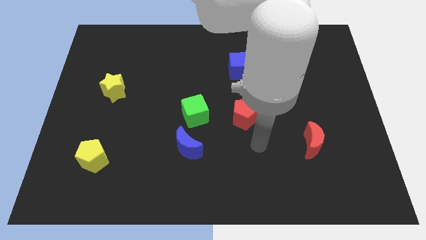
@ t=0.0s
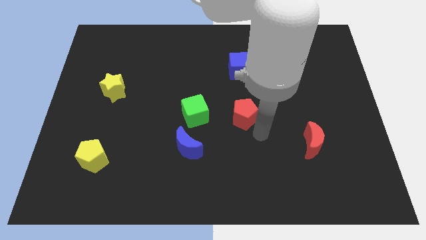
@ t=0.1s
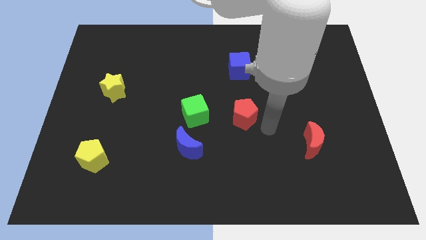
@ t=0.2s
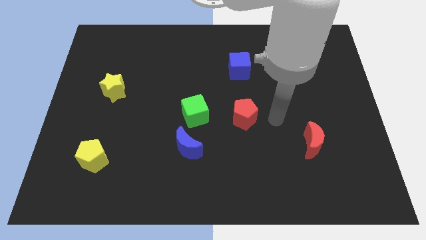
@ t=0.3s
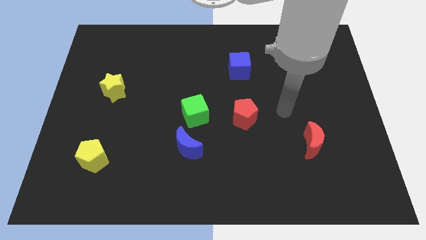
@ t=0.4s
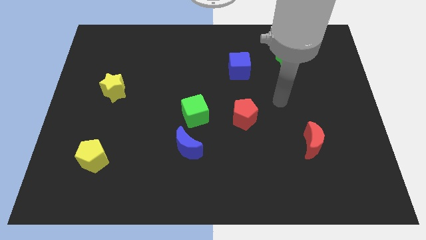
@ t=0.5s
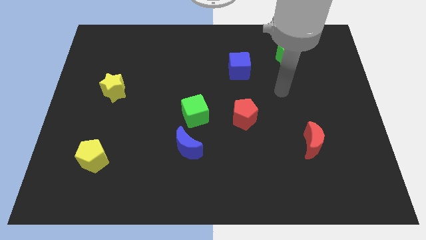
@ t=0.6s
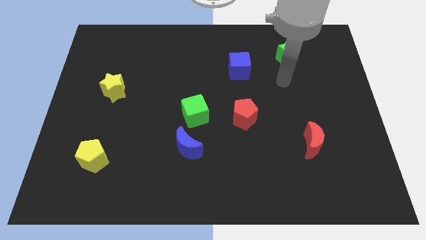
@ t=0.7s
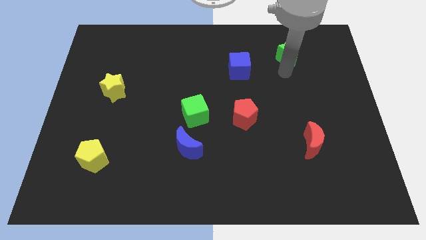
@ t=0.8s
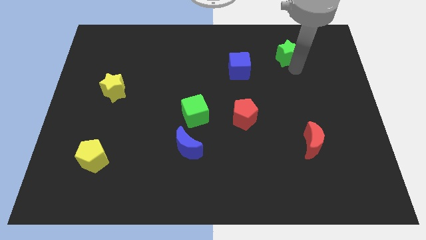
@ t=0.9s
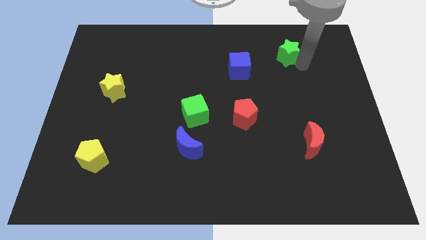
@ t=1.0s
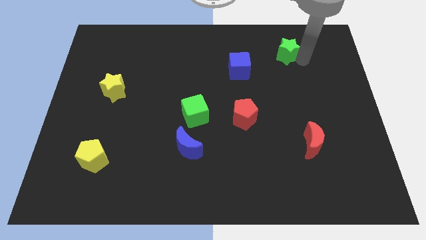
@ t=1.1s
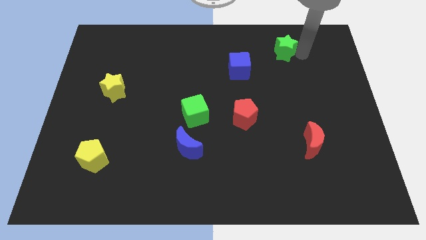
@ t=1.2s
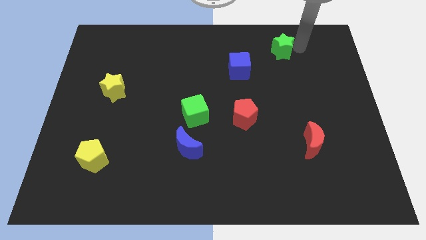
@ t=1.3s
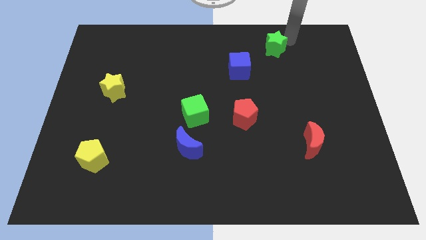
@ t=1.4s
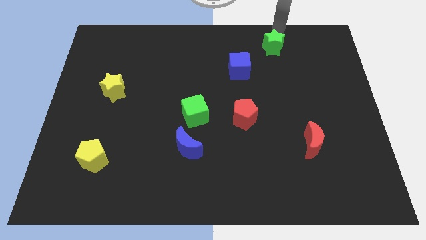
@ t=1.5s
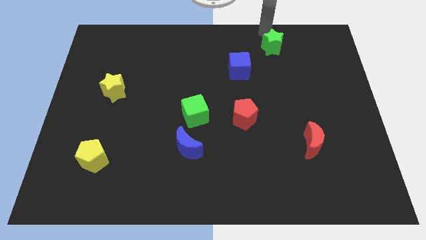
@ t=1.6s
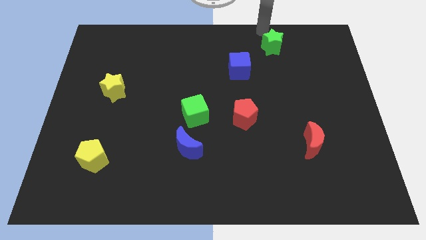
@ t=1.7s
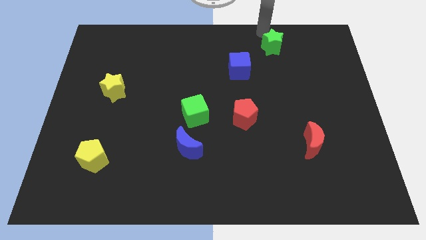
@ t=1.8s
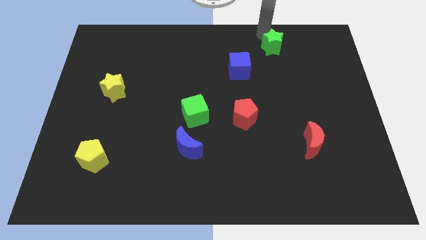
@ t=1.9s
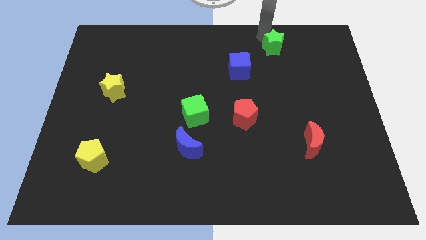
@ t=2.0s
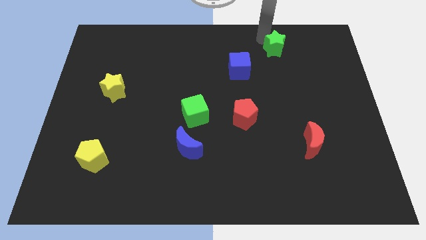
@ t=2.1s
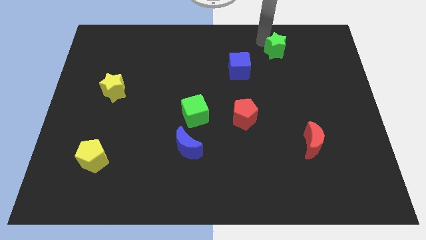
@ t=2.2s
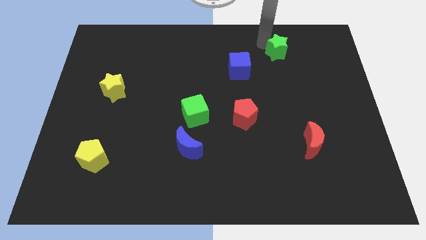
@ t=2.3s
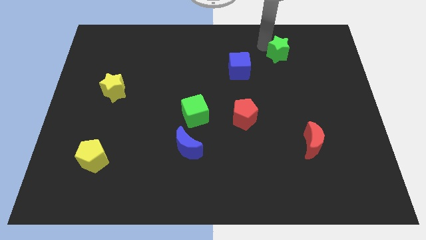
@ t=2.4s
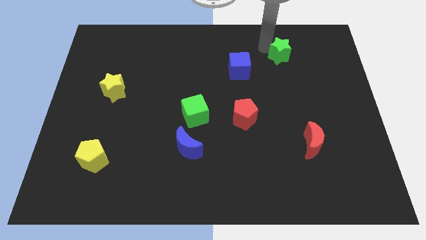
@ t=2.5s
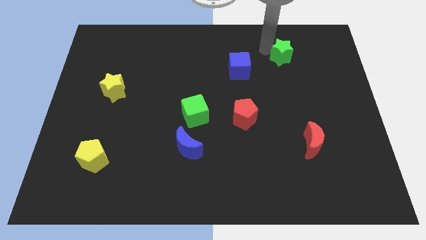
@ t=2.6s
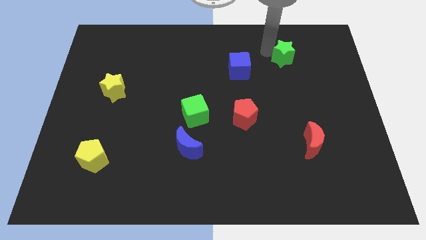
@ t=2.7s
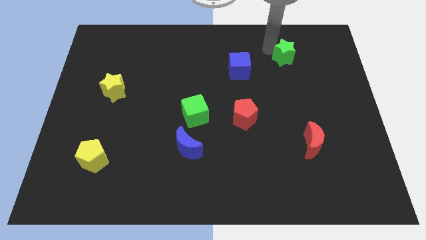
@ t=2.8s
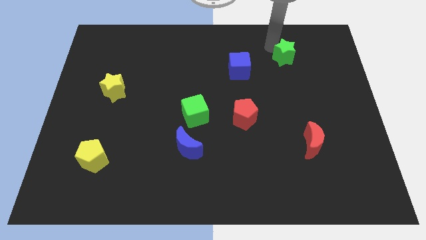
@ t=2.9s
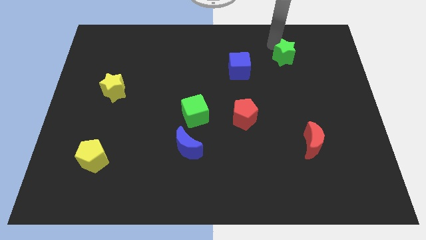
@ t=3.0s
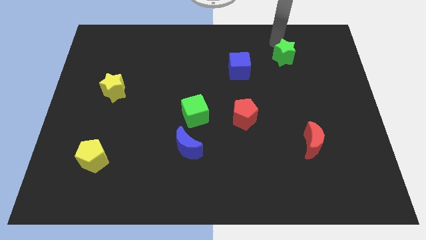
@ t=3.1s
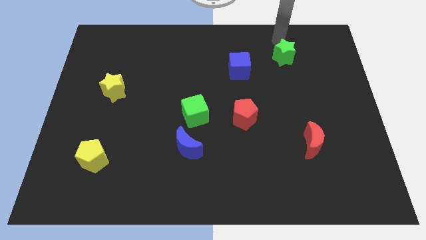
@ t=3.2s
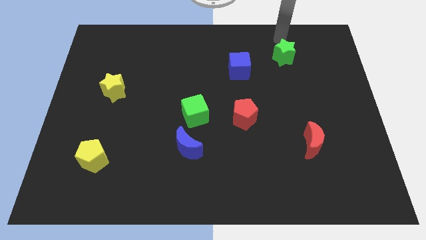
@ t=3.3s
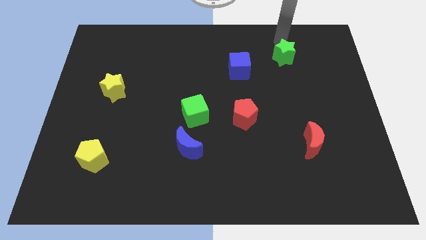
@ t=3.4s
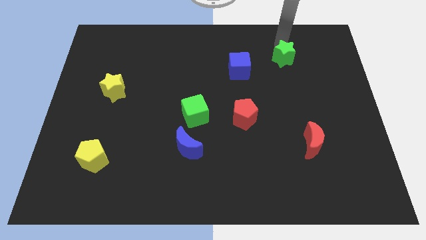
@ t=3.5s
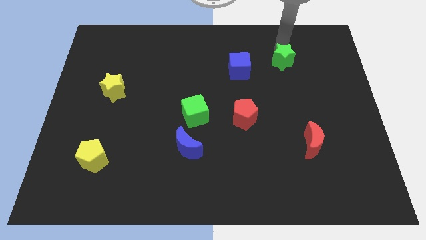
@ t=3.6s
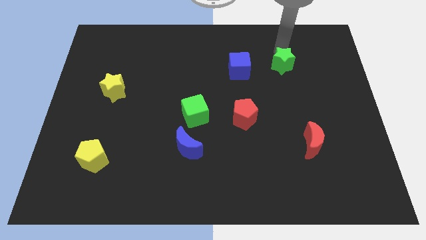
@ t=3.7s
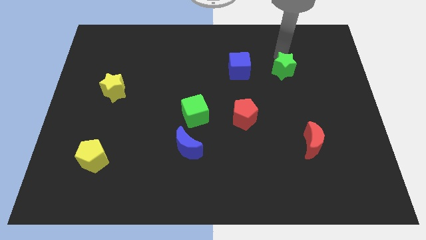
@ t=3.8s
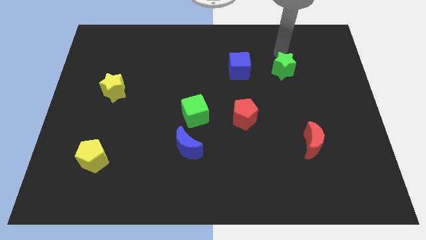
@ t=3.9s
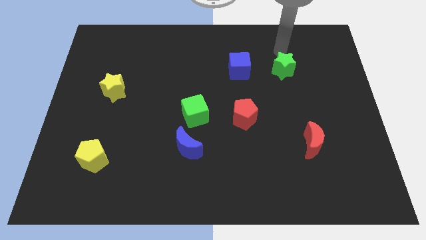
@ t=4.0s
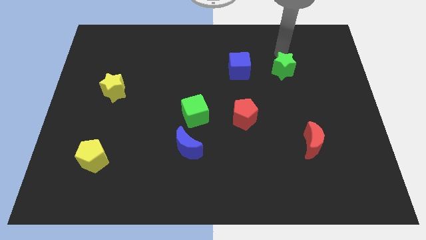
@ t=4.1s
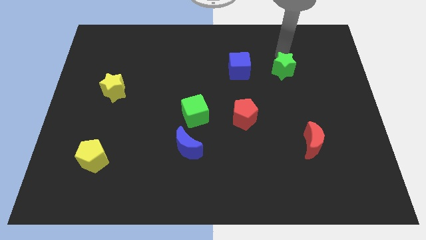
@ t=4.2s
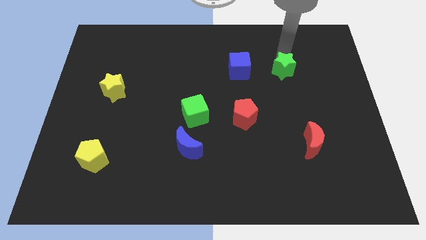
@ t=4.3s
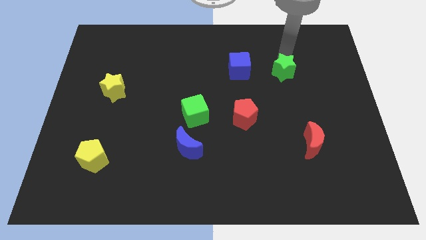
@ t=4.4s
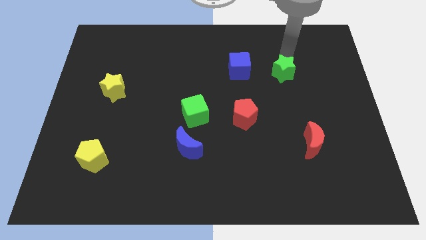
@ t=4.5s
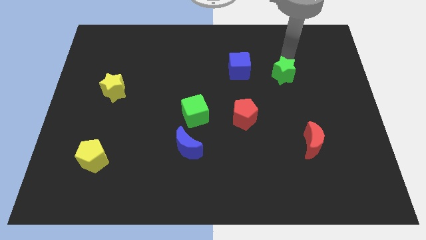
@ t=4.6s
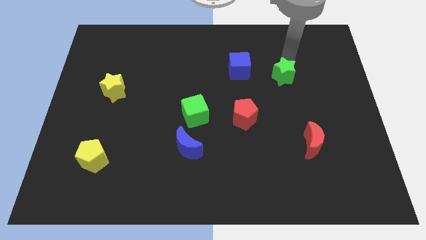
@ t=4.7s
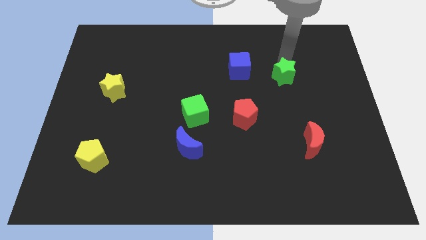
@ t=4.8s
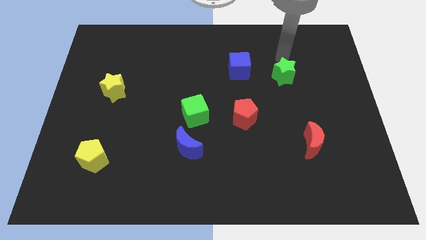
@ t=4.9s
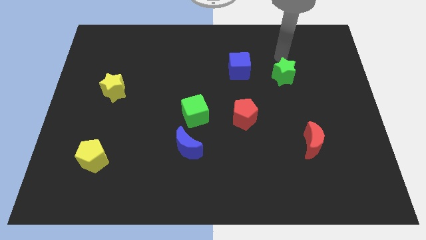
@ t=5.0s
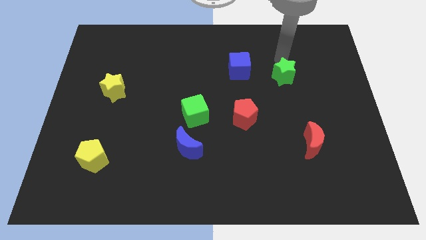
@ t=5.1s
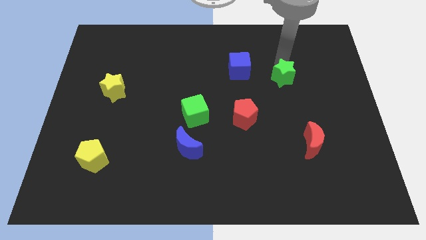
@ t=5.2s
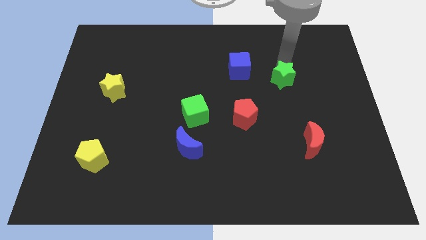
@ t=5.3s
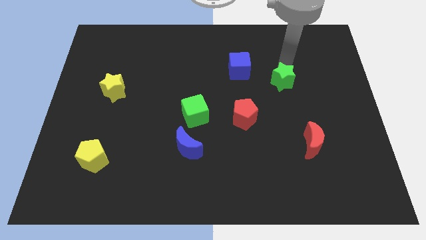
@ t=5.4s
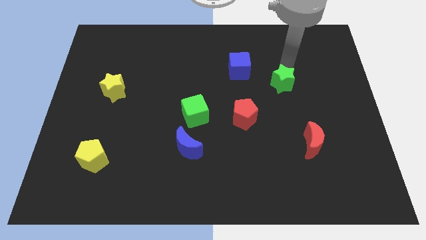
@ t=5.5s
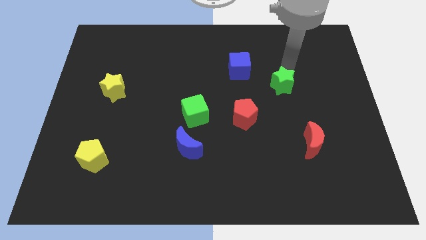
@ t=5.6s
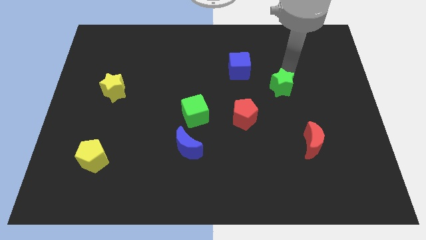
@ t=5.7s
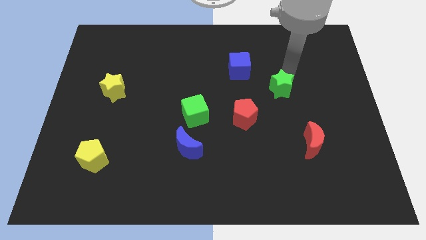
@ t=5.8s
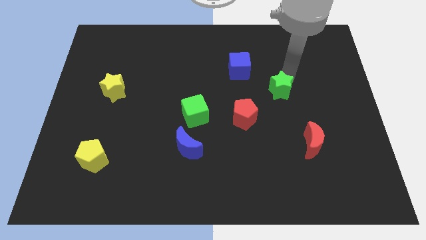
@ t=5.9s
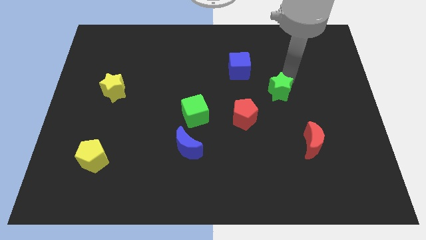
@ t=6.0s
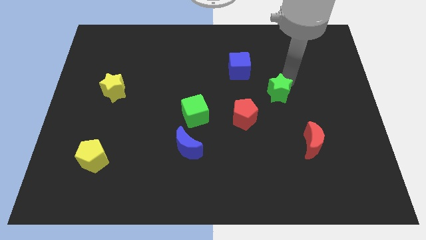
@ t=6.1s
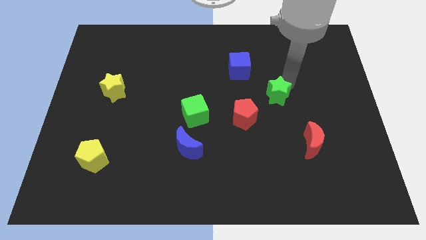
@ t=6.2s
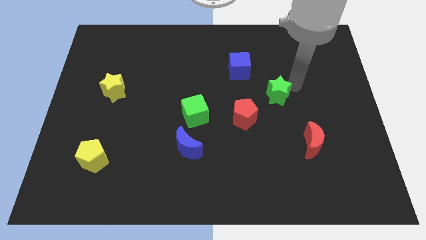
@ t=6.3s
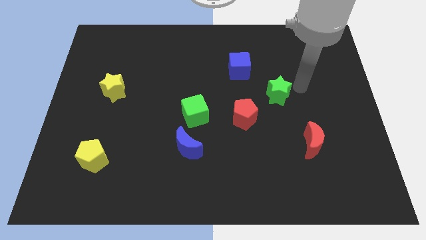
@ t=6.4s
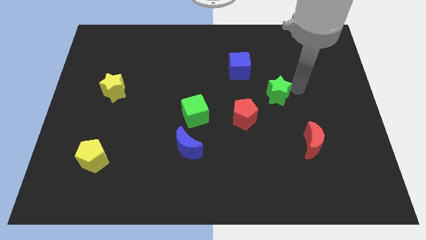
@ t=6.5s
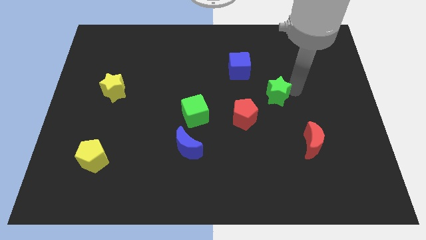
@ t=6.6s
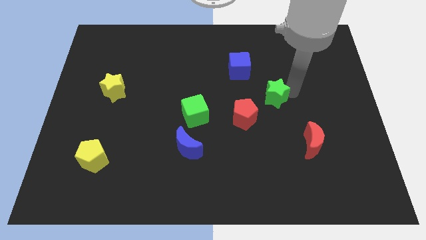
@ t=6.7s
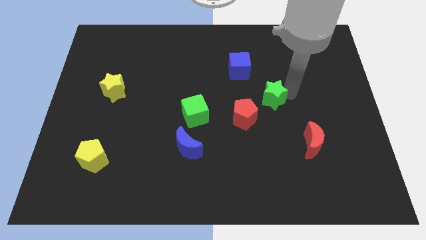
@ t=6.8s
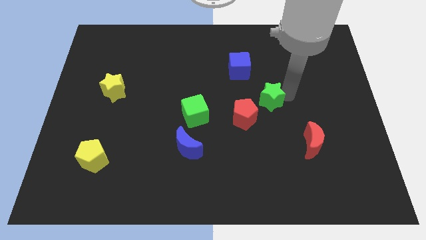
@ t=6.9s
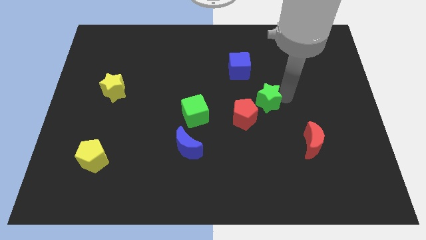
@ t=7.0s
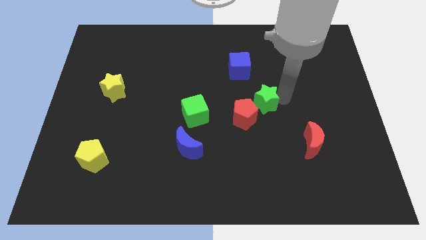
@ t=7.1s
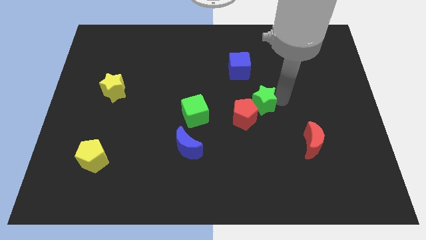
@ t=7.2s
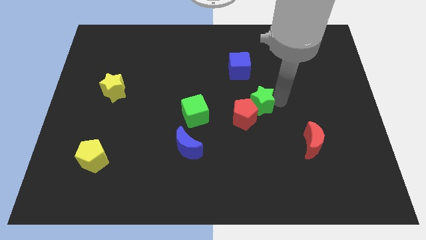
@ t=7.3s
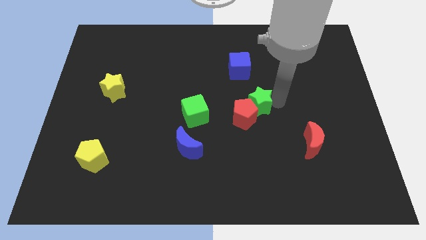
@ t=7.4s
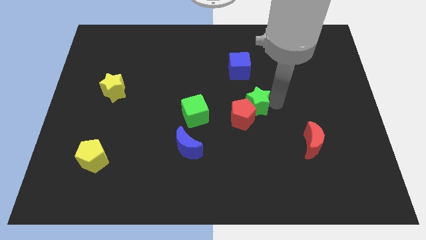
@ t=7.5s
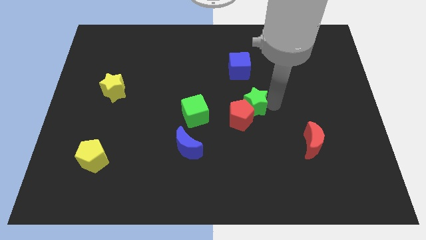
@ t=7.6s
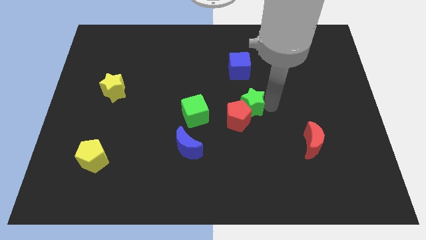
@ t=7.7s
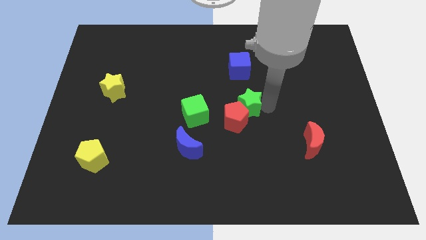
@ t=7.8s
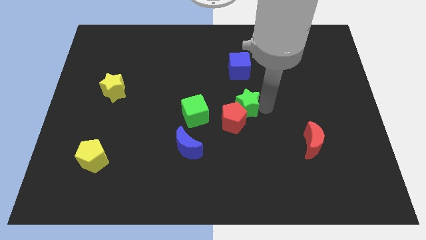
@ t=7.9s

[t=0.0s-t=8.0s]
move the green star downwards and left diagonally

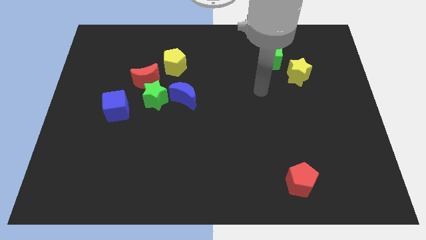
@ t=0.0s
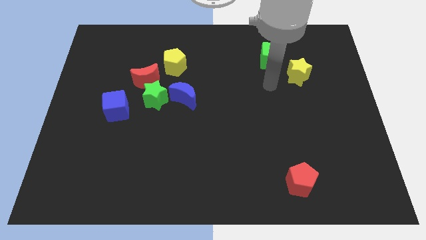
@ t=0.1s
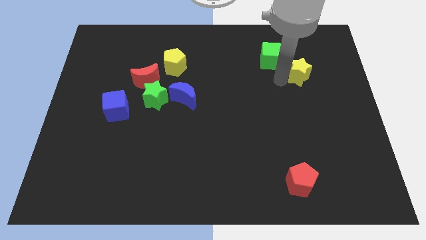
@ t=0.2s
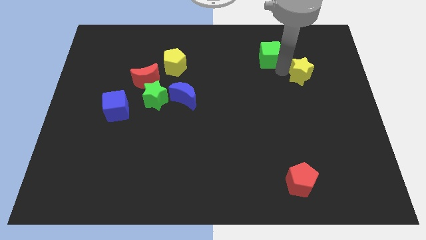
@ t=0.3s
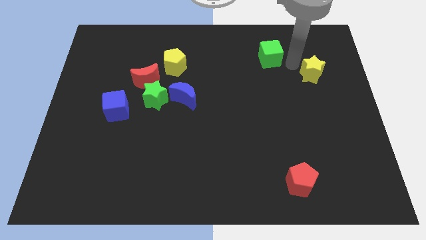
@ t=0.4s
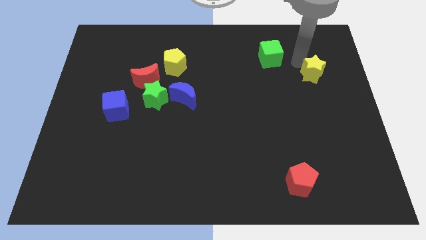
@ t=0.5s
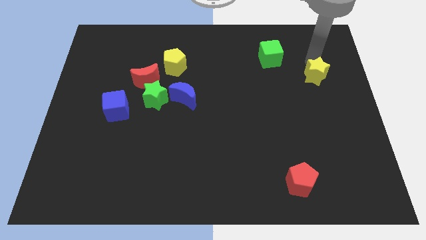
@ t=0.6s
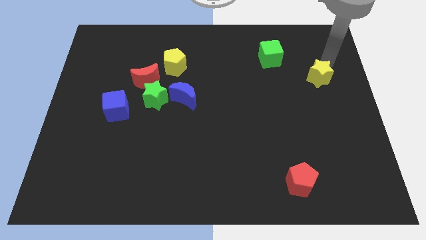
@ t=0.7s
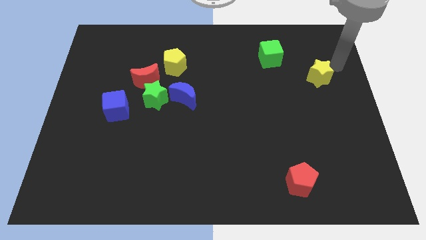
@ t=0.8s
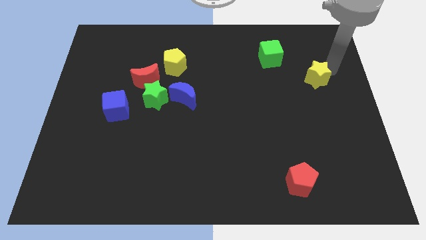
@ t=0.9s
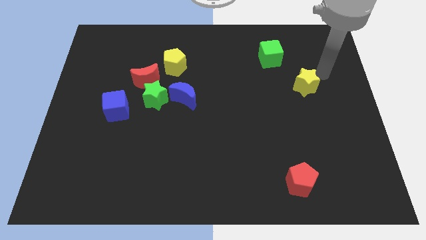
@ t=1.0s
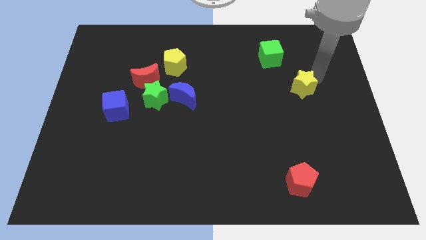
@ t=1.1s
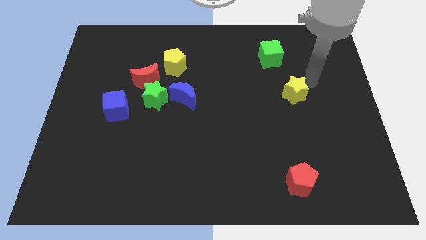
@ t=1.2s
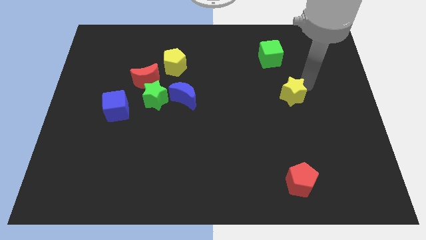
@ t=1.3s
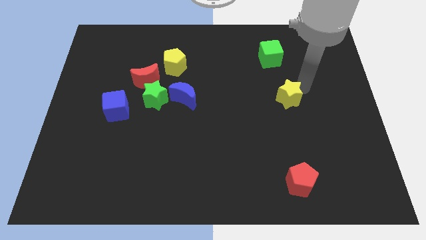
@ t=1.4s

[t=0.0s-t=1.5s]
push the yellow star a bit downwards and to the left
